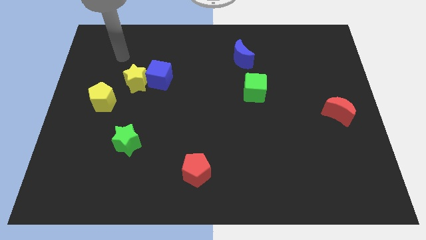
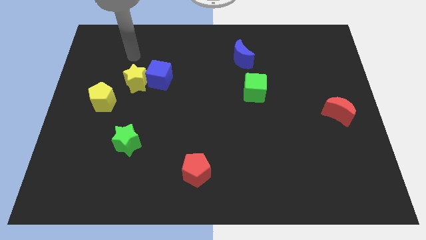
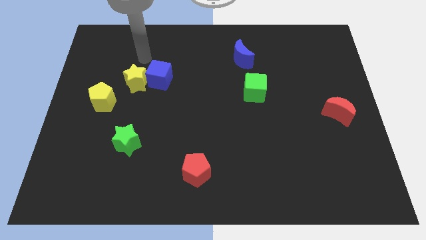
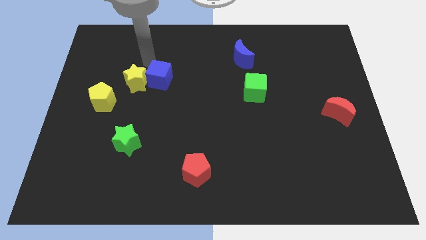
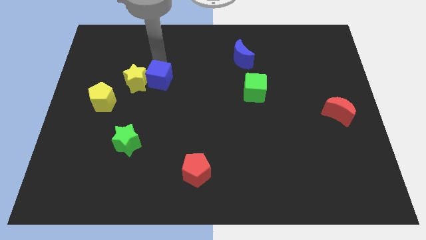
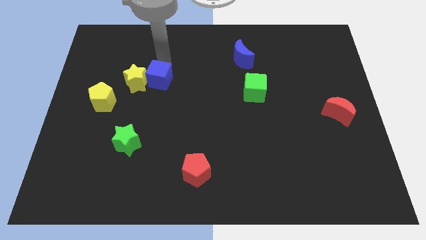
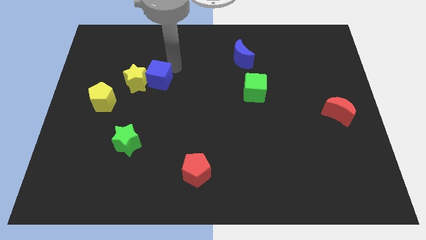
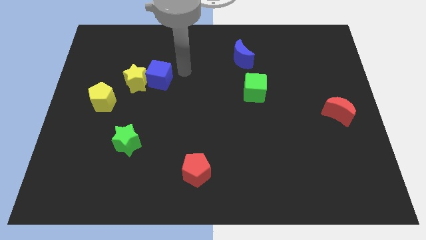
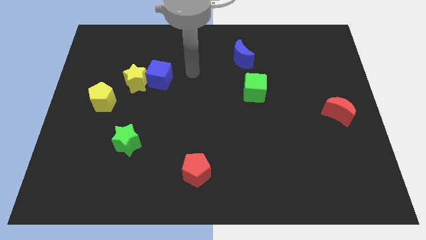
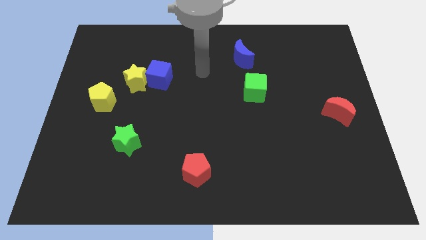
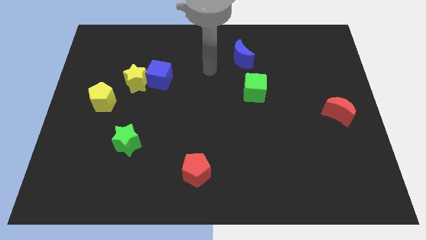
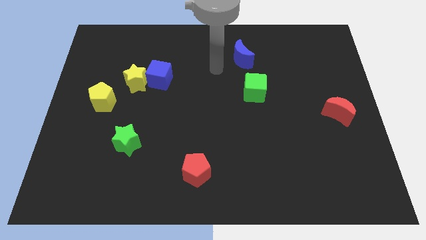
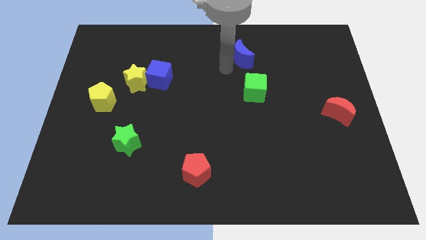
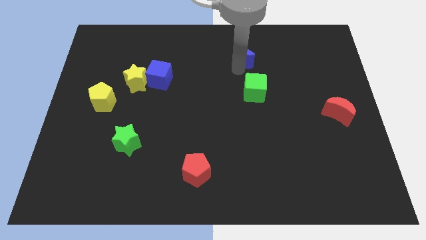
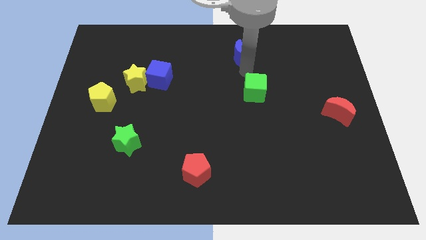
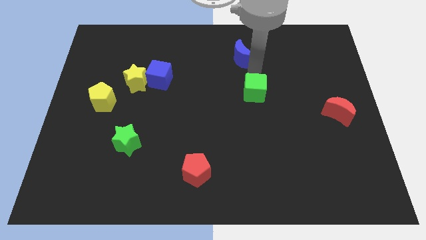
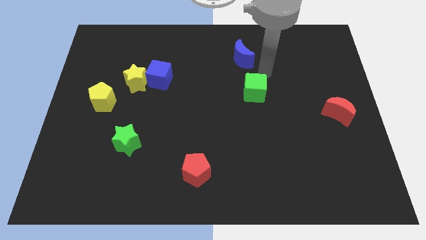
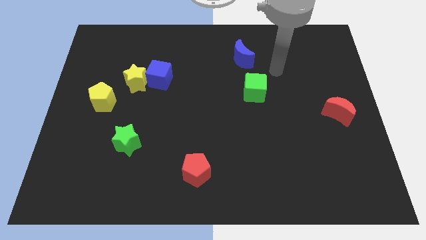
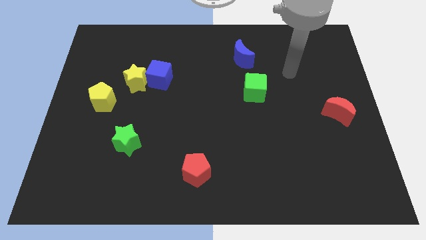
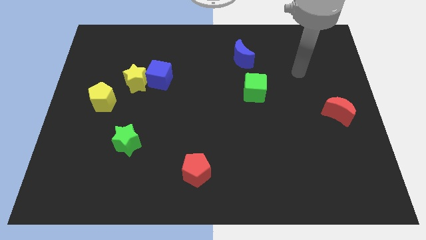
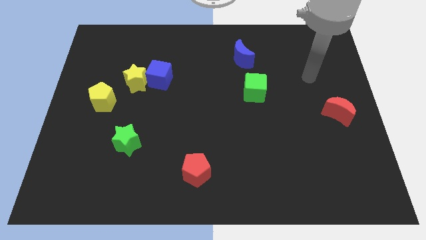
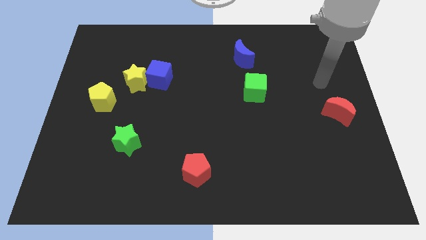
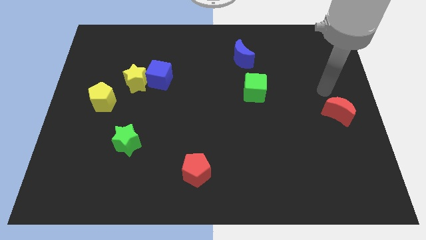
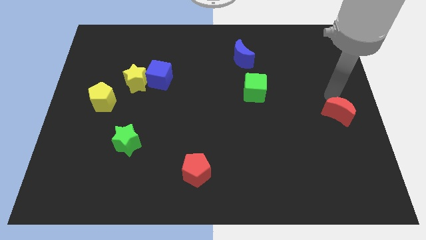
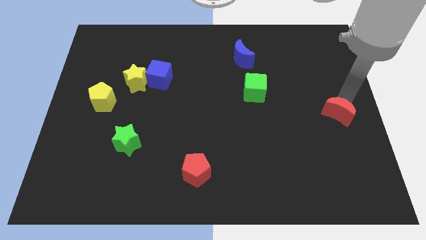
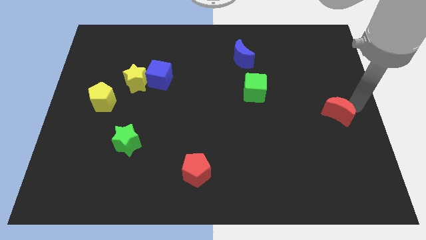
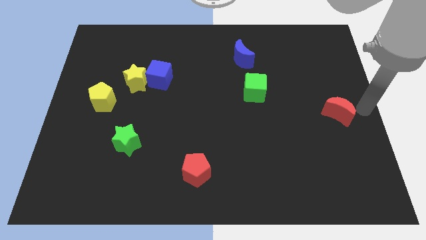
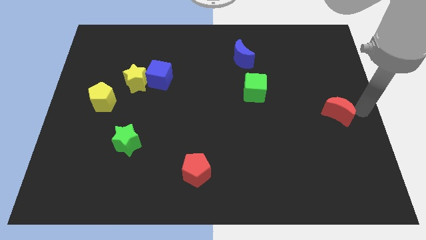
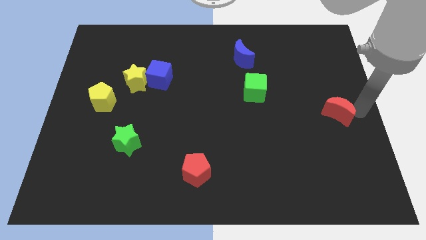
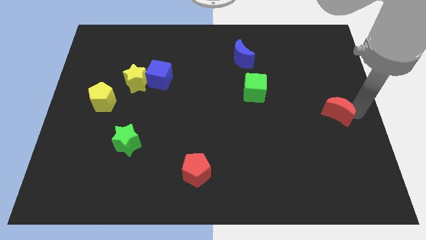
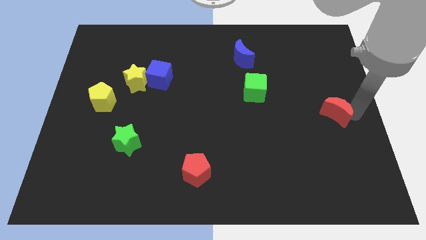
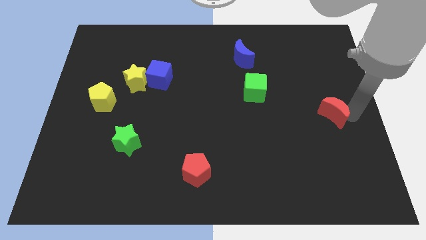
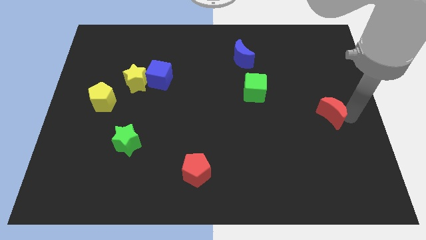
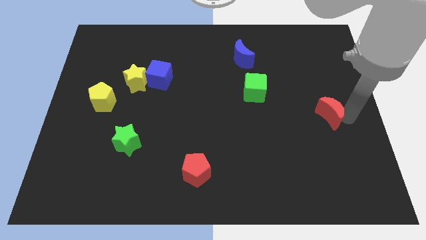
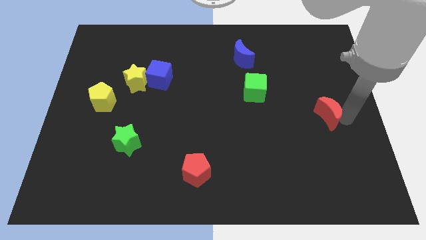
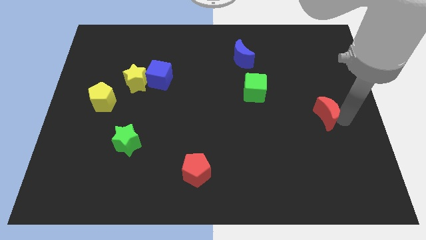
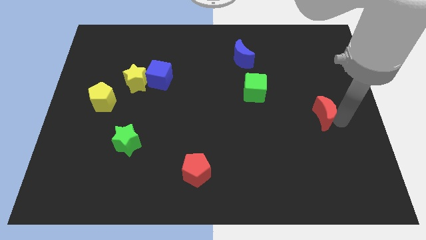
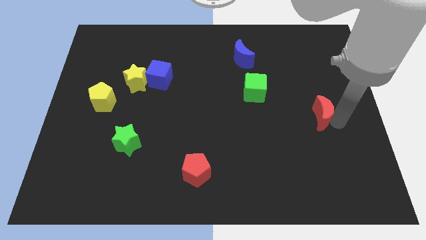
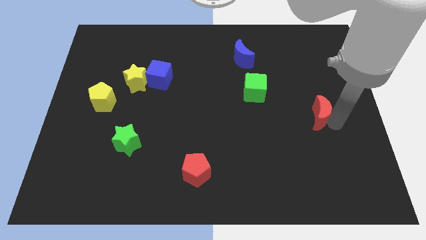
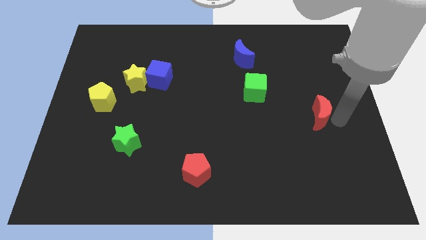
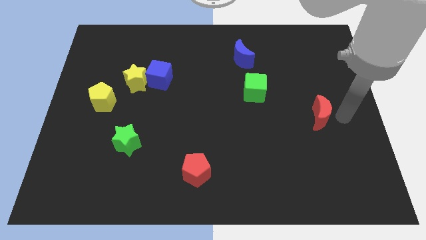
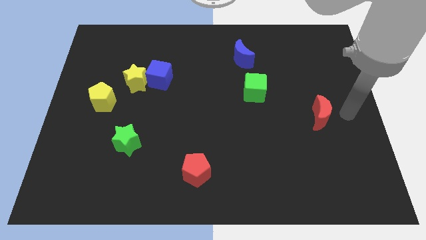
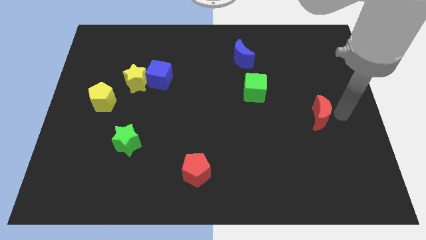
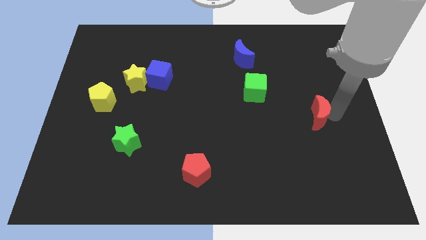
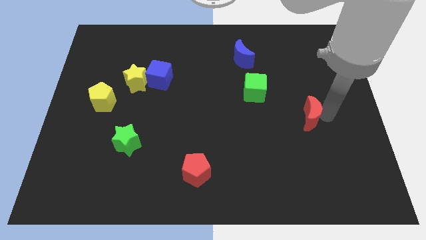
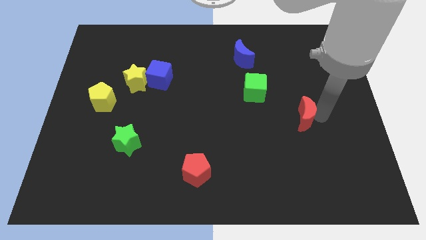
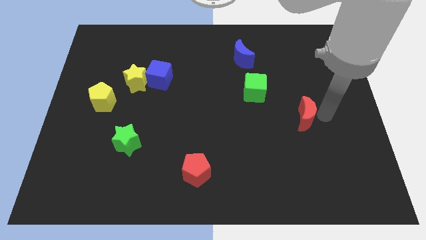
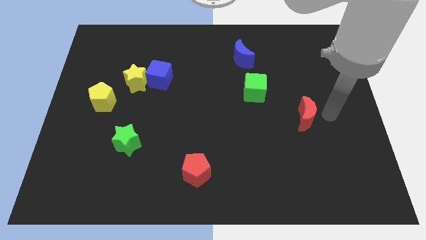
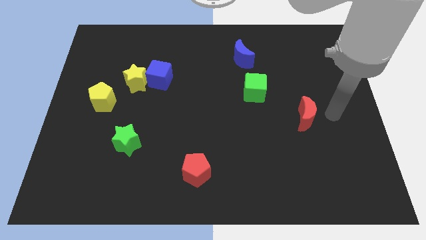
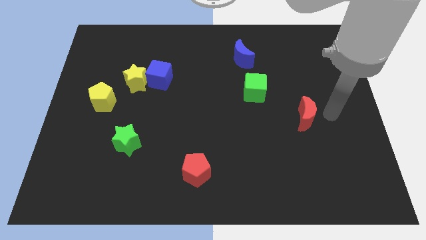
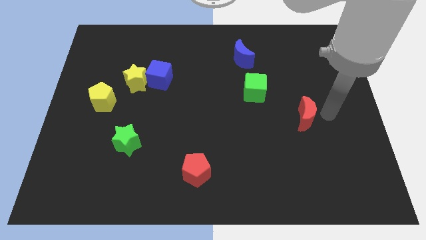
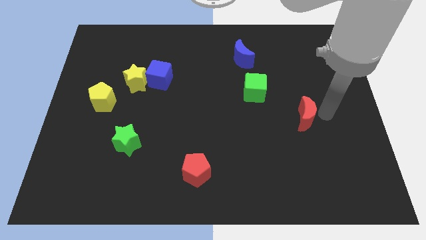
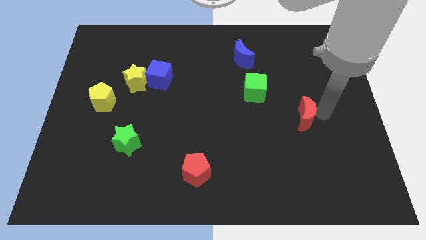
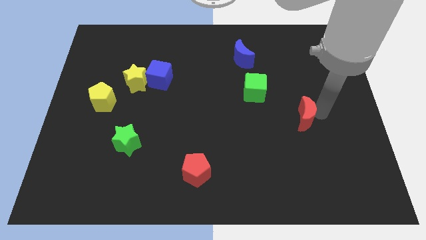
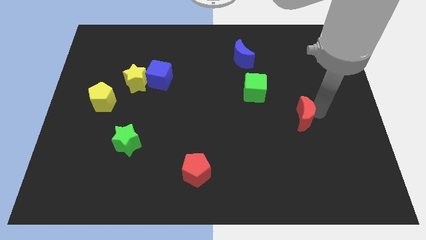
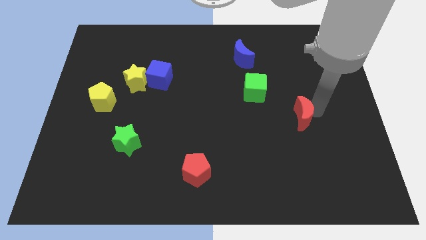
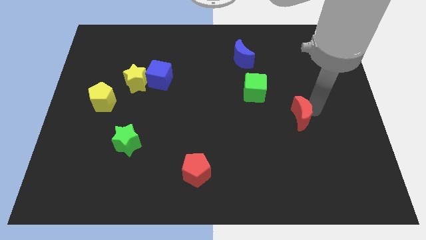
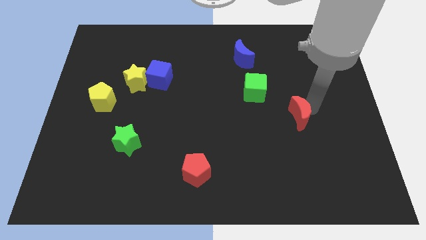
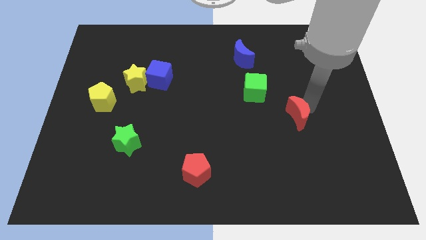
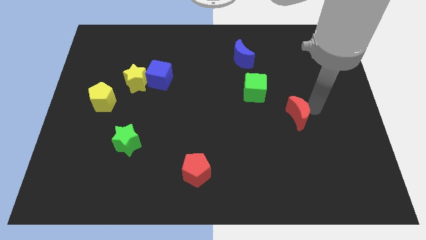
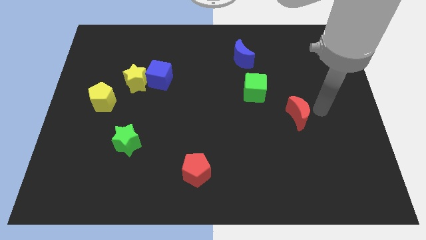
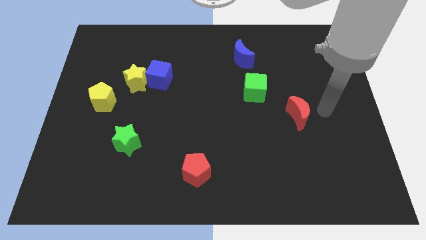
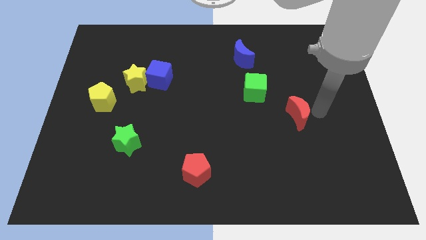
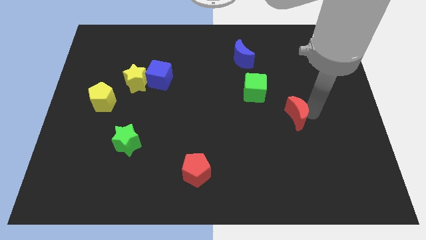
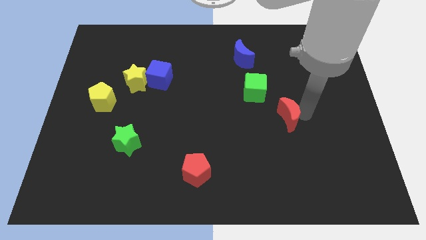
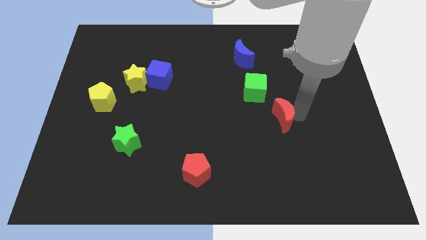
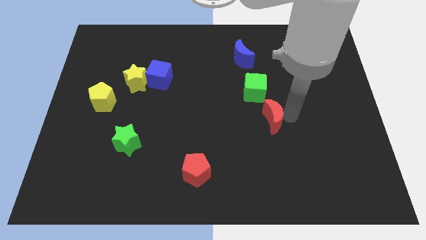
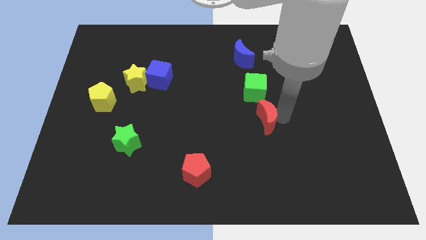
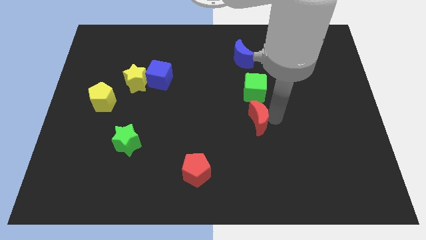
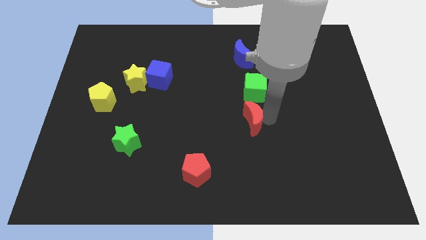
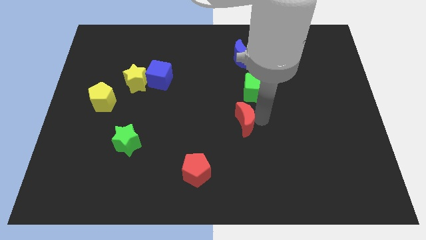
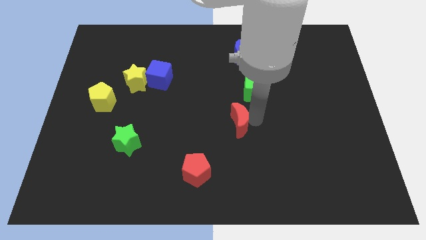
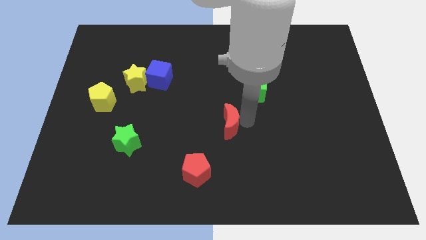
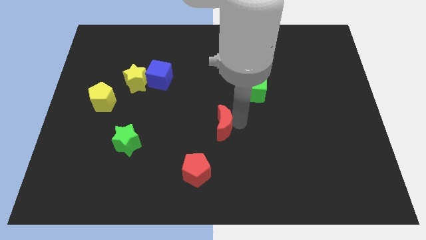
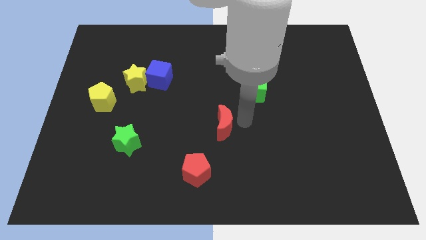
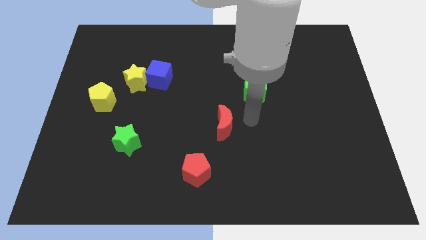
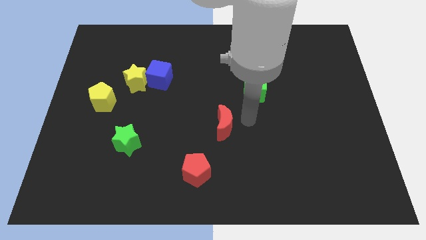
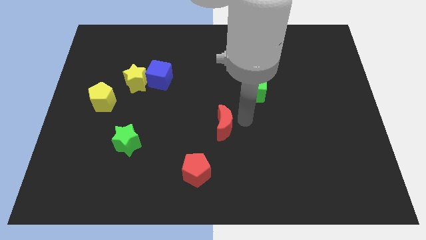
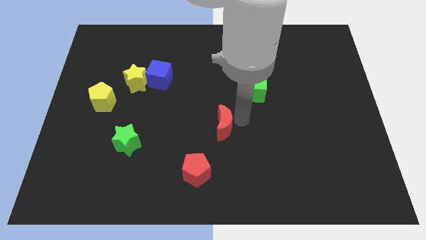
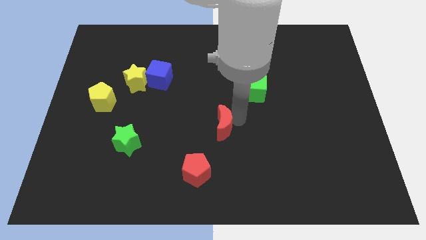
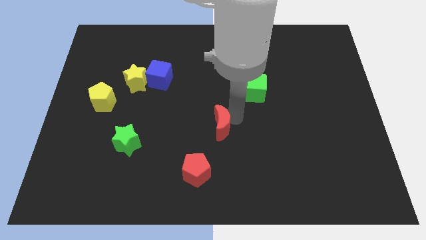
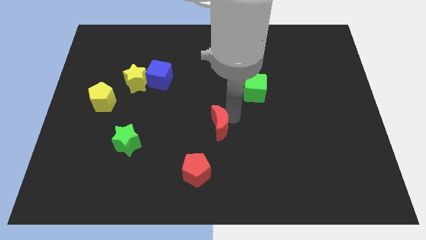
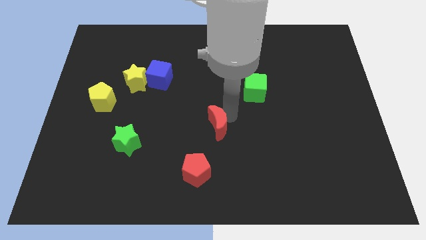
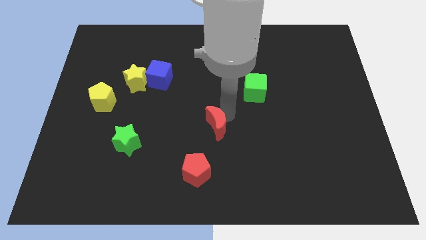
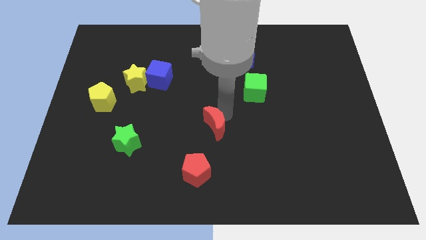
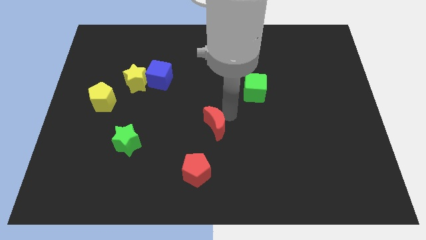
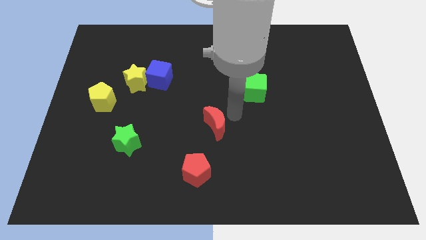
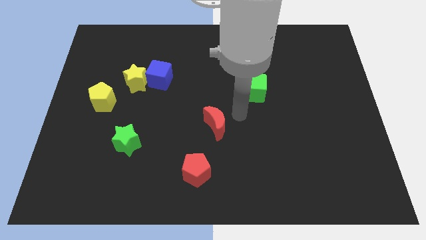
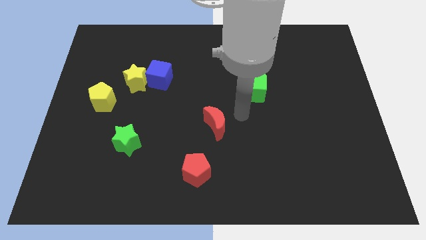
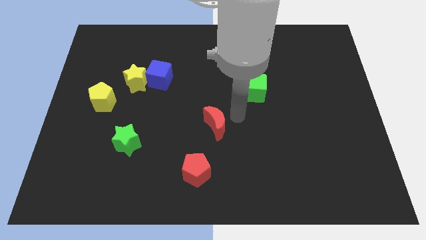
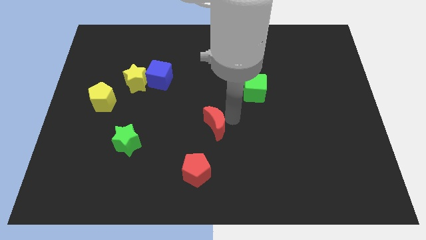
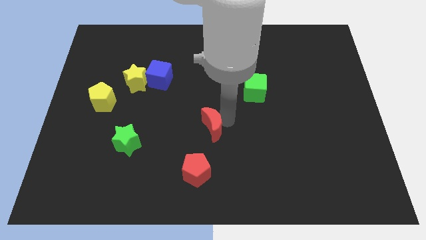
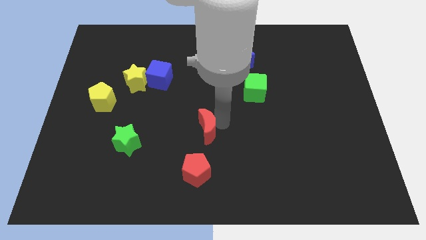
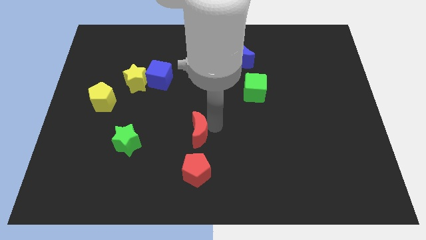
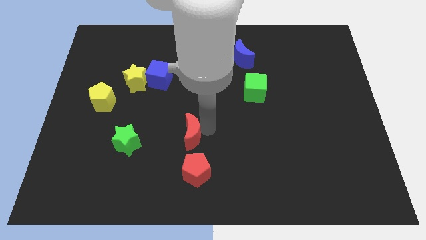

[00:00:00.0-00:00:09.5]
move the red moon to the right side of the green star
